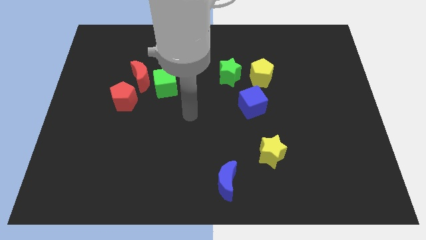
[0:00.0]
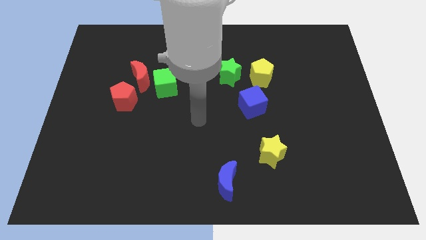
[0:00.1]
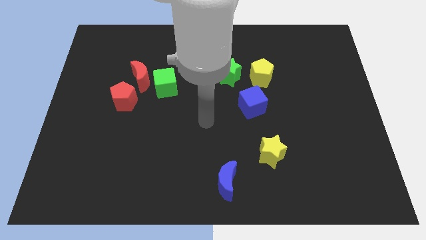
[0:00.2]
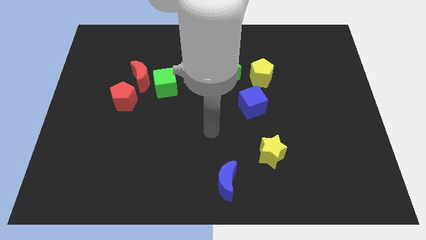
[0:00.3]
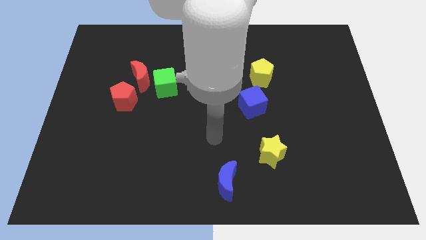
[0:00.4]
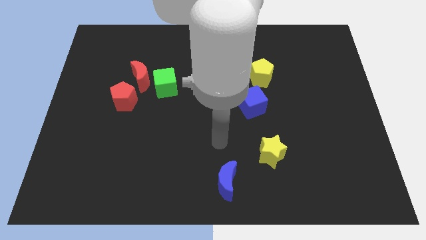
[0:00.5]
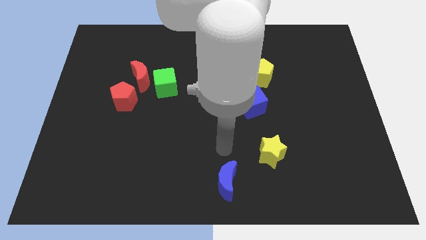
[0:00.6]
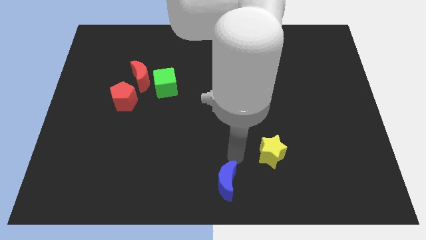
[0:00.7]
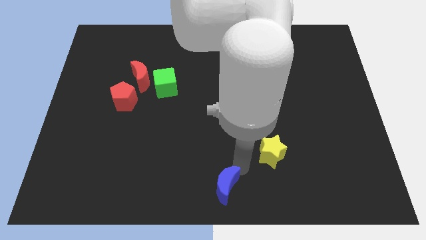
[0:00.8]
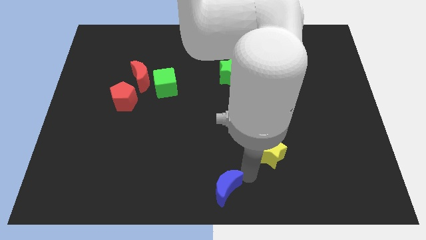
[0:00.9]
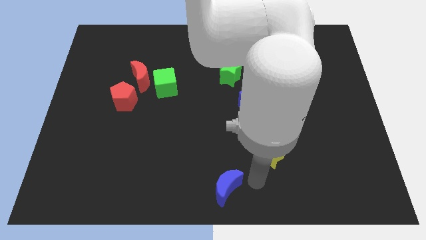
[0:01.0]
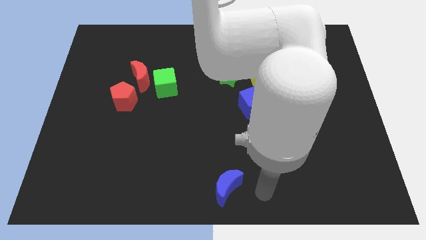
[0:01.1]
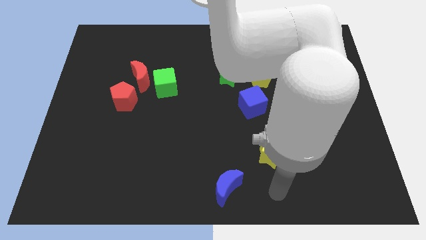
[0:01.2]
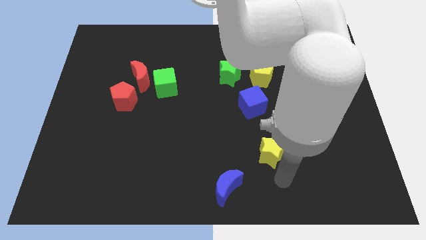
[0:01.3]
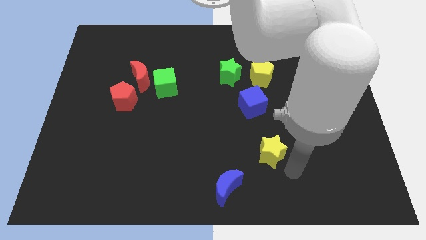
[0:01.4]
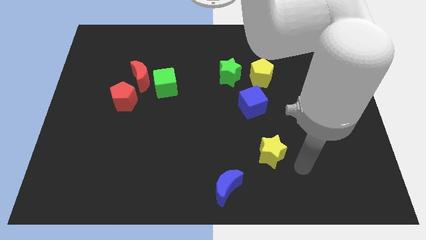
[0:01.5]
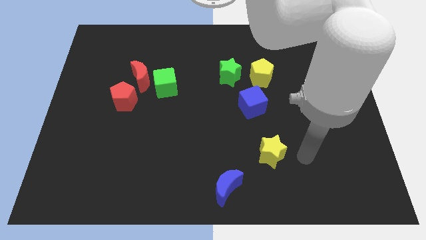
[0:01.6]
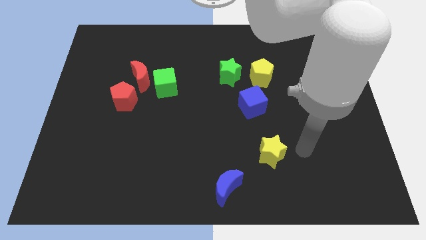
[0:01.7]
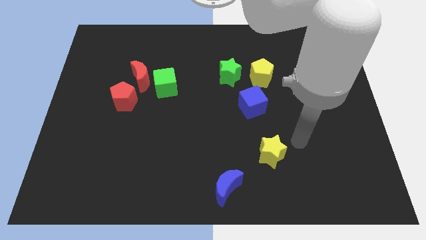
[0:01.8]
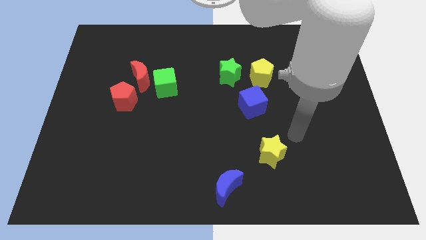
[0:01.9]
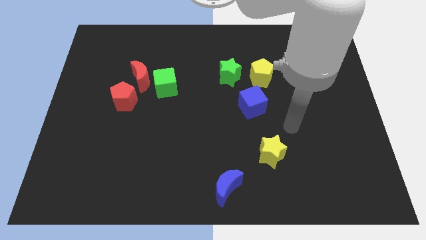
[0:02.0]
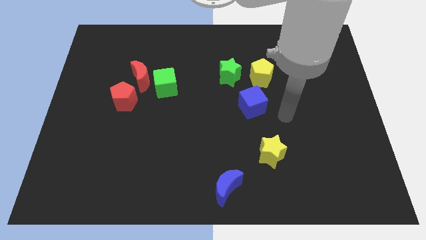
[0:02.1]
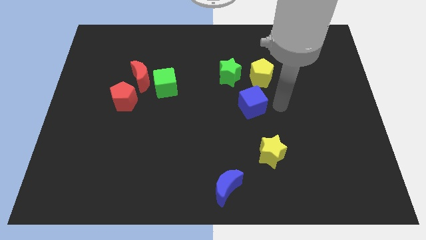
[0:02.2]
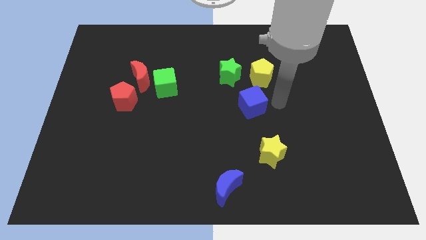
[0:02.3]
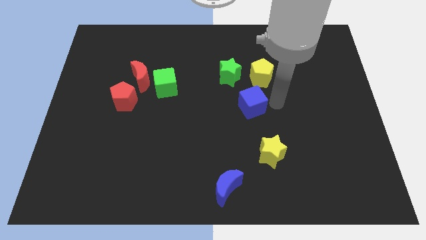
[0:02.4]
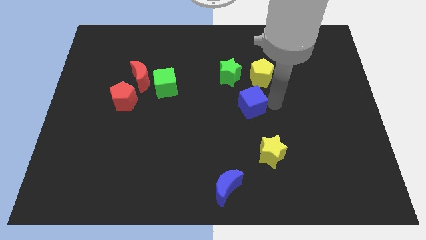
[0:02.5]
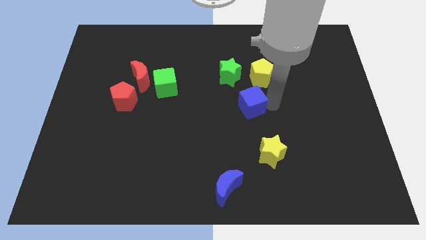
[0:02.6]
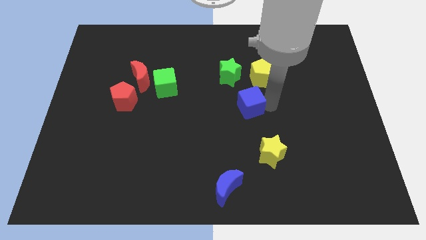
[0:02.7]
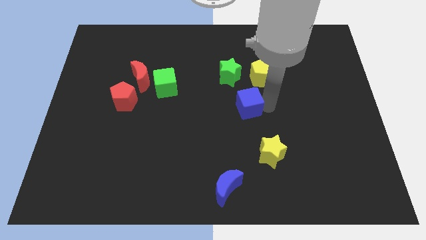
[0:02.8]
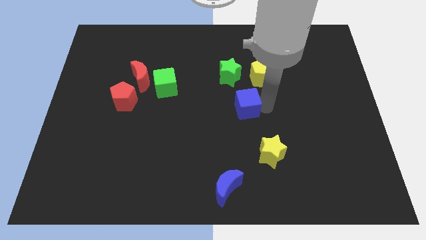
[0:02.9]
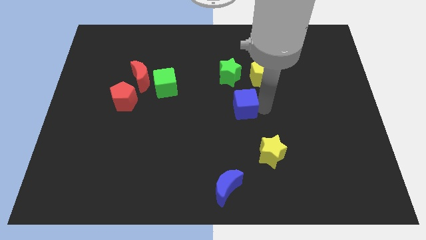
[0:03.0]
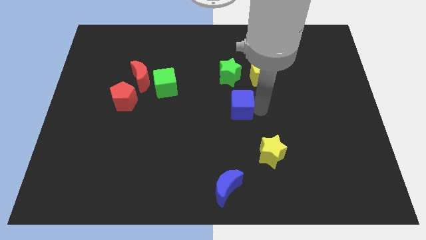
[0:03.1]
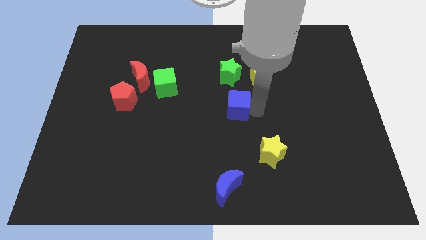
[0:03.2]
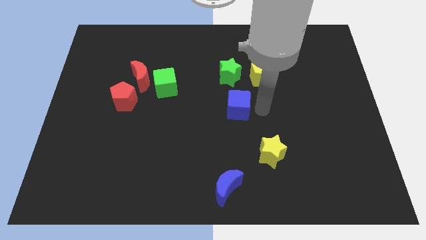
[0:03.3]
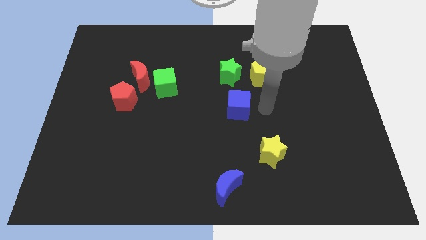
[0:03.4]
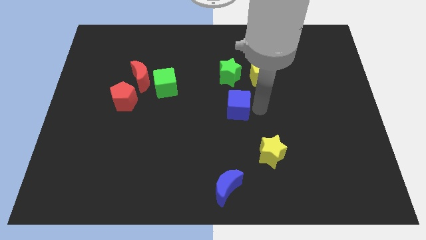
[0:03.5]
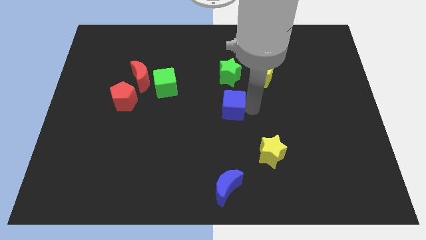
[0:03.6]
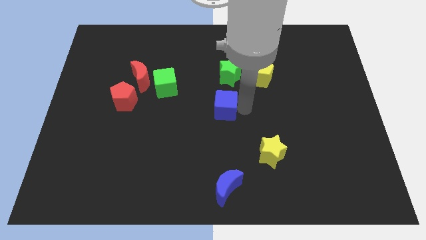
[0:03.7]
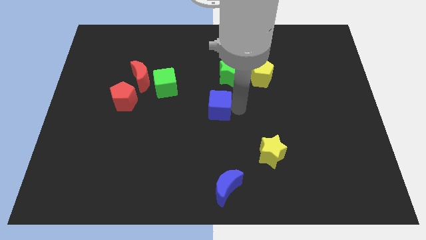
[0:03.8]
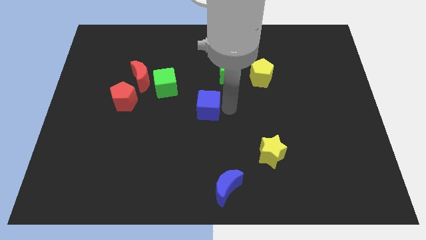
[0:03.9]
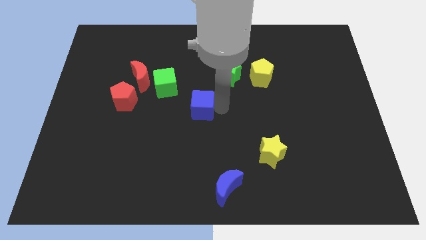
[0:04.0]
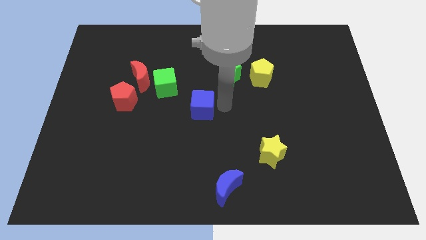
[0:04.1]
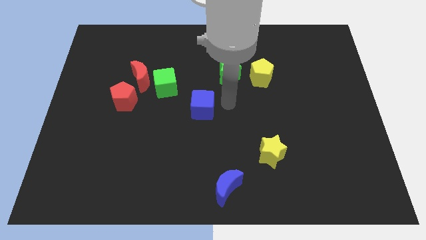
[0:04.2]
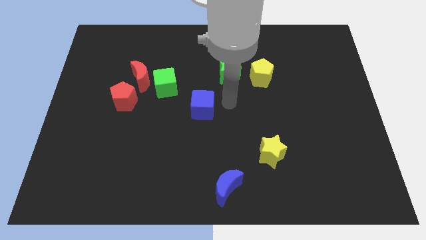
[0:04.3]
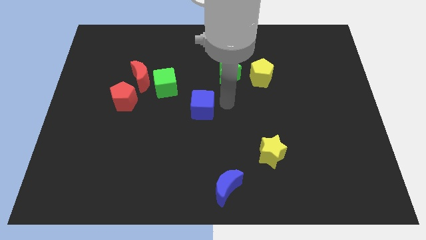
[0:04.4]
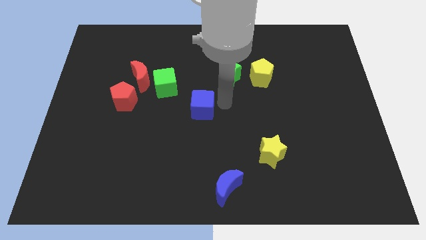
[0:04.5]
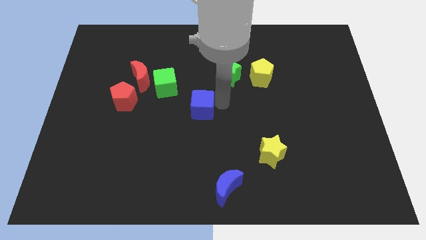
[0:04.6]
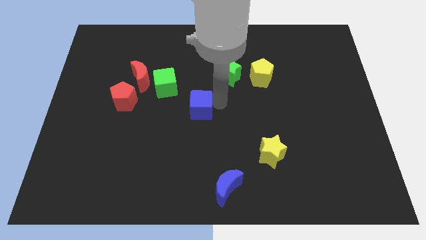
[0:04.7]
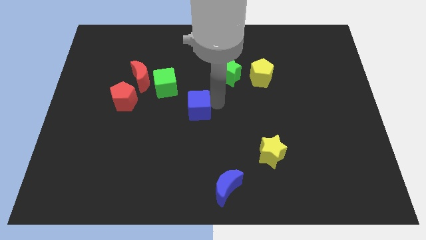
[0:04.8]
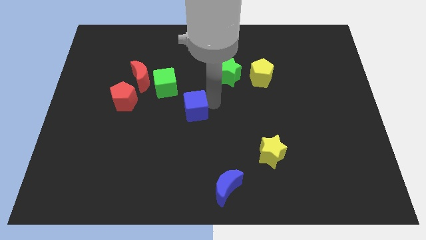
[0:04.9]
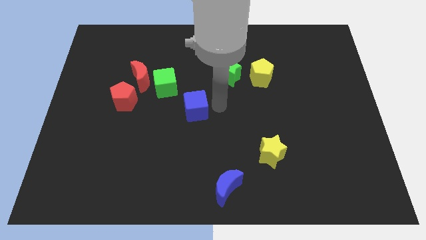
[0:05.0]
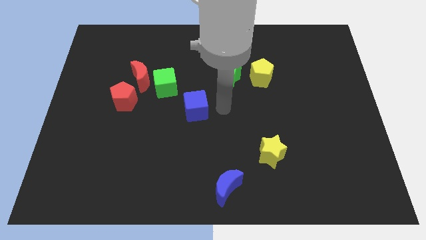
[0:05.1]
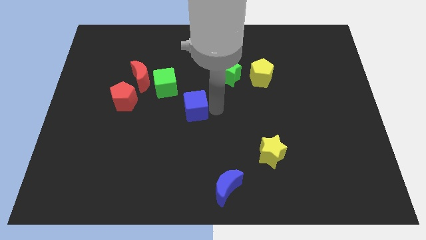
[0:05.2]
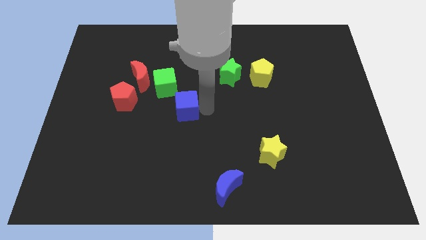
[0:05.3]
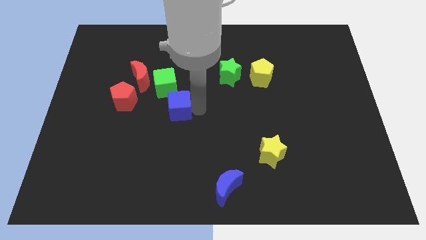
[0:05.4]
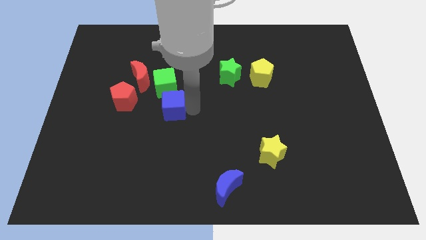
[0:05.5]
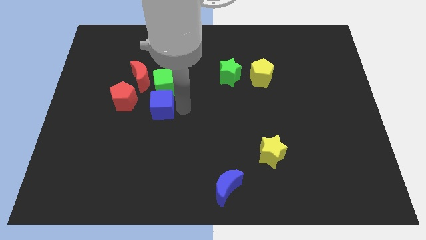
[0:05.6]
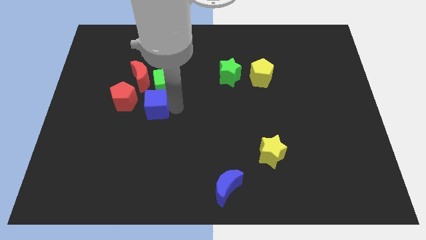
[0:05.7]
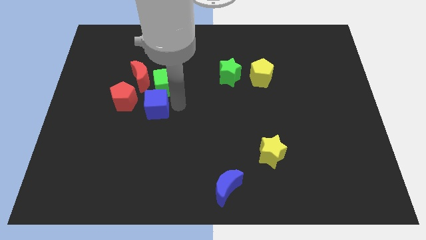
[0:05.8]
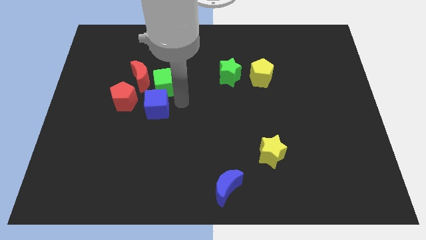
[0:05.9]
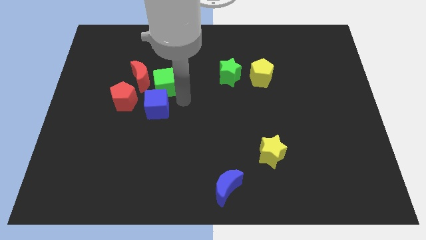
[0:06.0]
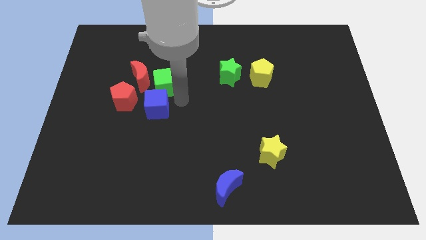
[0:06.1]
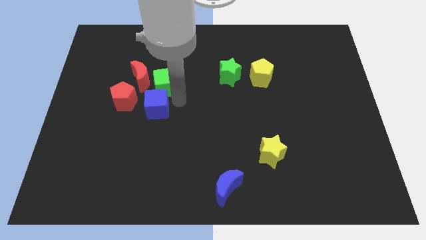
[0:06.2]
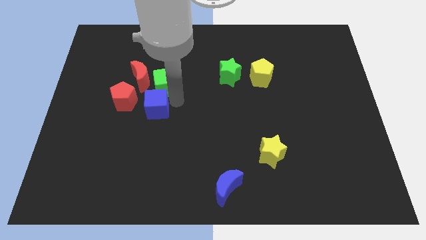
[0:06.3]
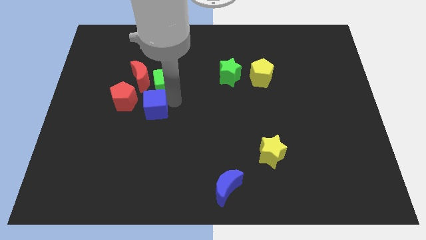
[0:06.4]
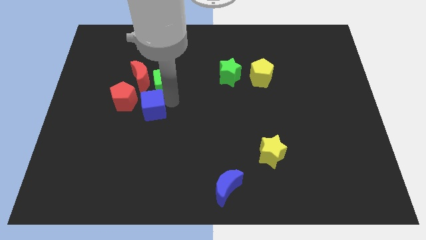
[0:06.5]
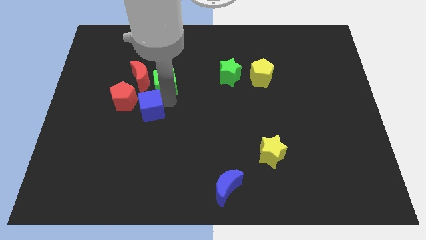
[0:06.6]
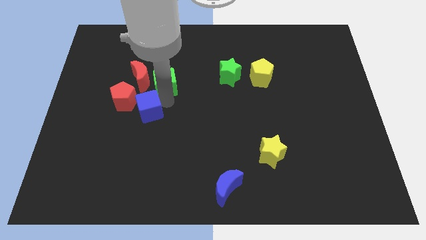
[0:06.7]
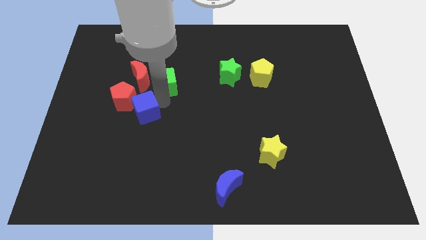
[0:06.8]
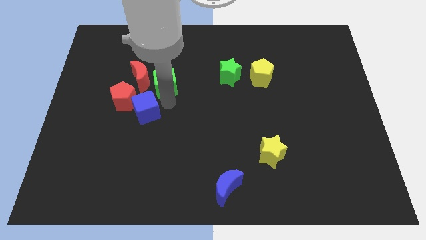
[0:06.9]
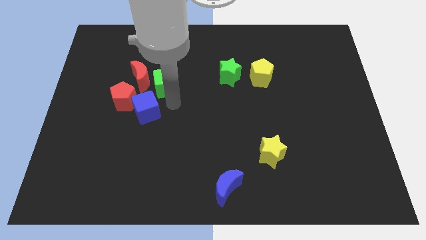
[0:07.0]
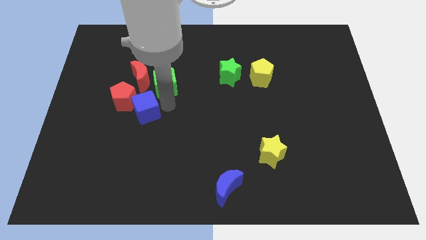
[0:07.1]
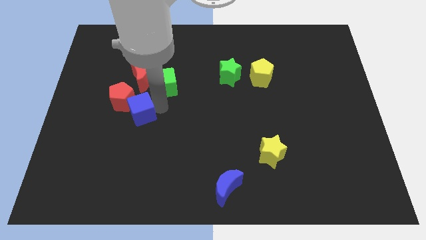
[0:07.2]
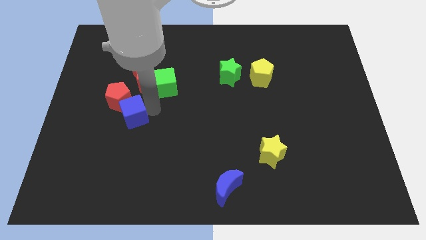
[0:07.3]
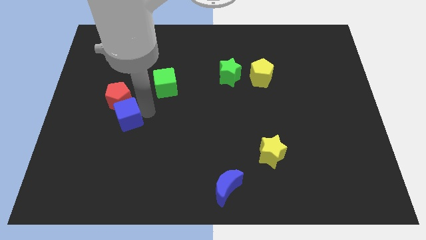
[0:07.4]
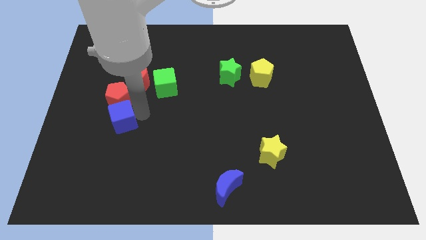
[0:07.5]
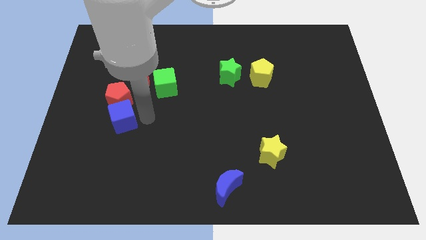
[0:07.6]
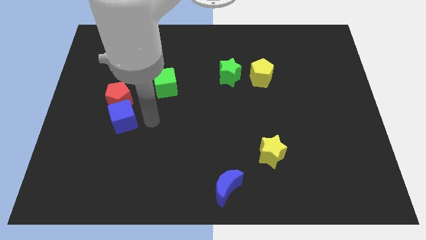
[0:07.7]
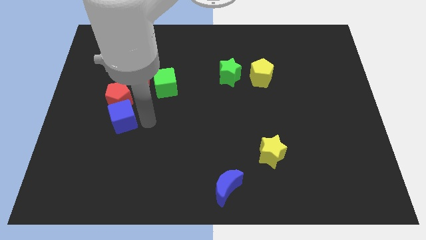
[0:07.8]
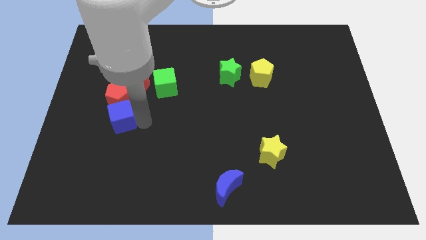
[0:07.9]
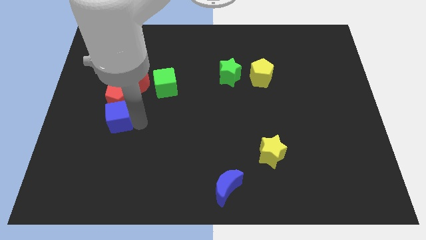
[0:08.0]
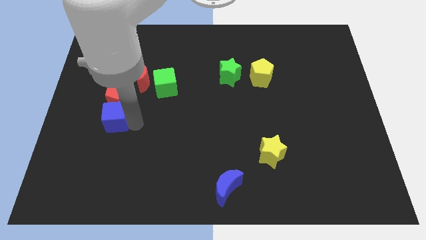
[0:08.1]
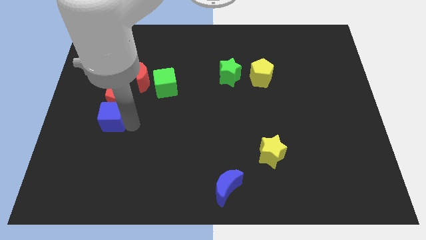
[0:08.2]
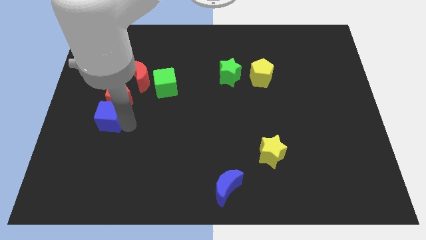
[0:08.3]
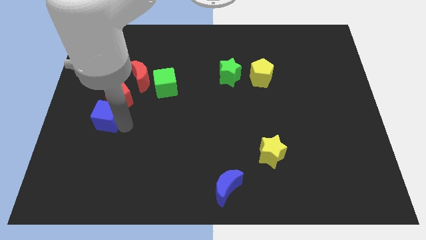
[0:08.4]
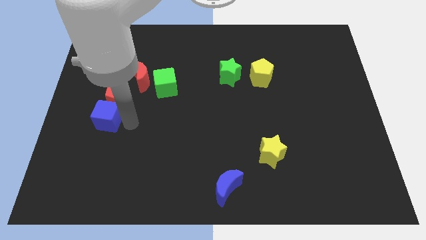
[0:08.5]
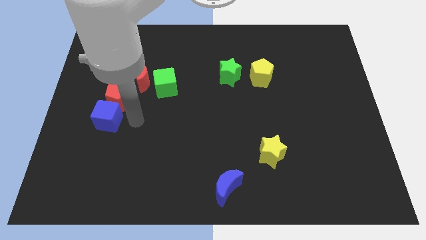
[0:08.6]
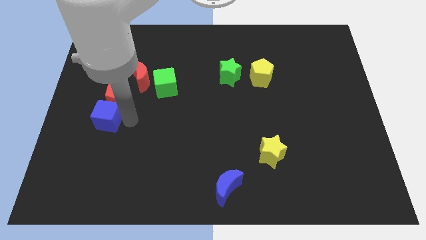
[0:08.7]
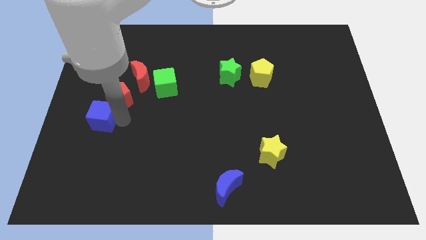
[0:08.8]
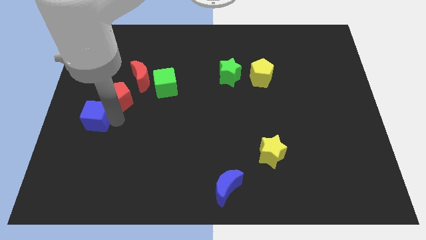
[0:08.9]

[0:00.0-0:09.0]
push the blue cube to the left side
